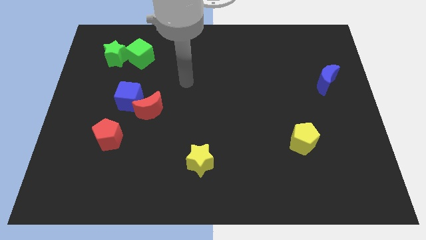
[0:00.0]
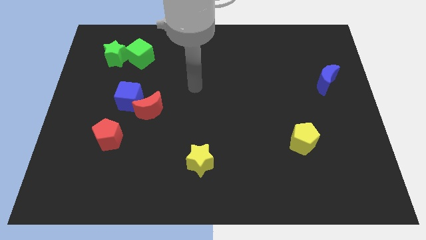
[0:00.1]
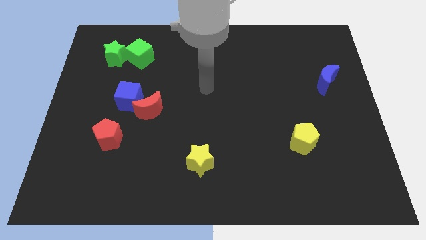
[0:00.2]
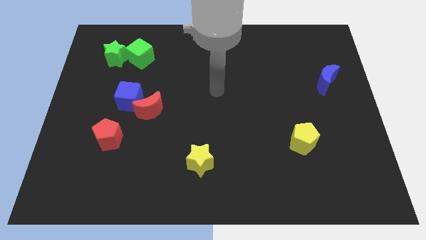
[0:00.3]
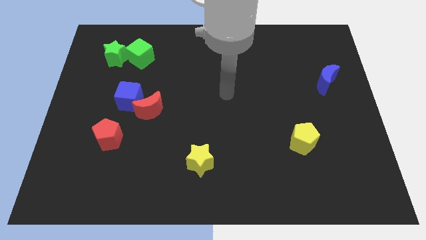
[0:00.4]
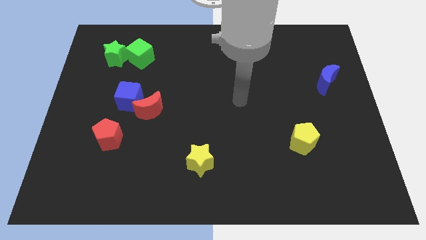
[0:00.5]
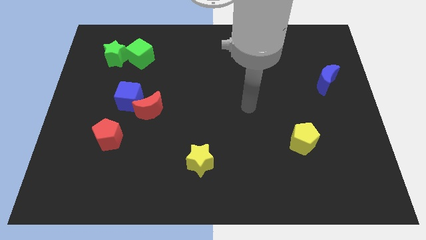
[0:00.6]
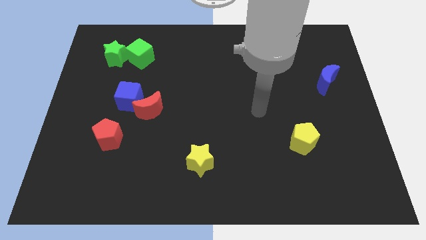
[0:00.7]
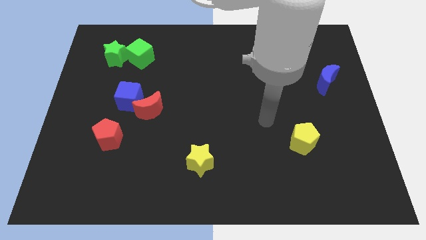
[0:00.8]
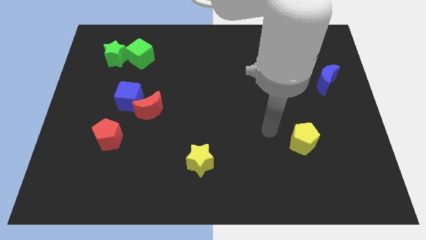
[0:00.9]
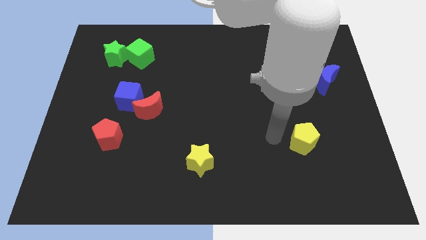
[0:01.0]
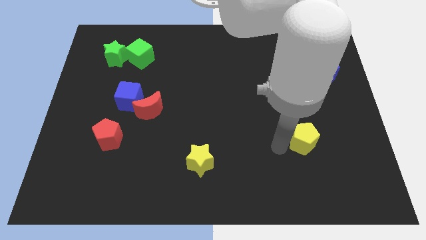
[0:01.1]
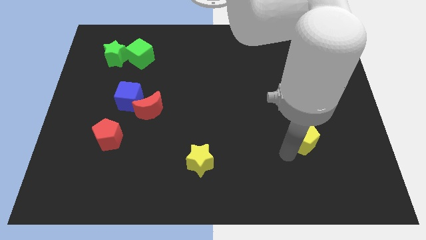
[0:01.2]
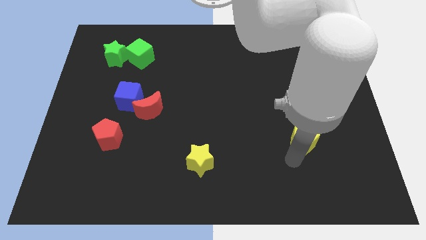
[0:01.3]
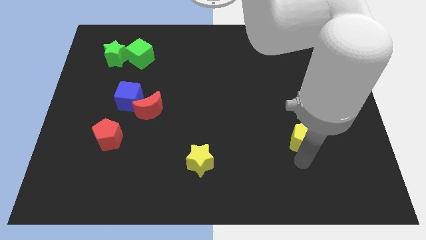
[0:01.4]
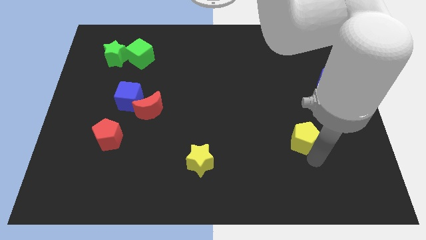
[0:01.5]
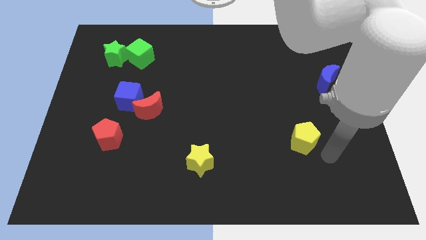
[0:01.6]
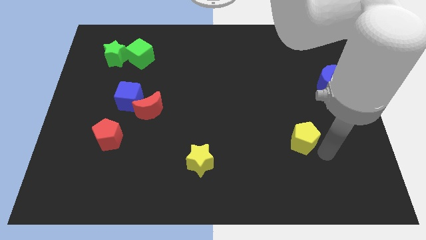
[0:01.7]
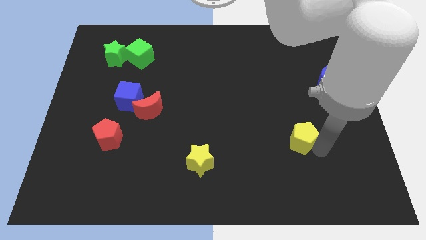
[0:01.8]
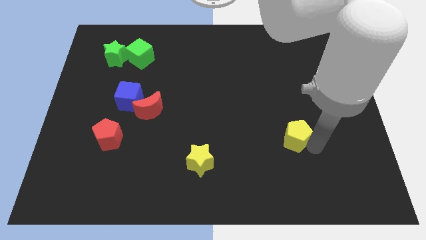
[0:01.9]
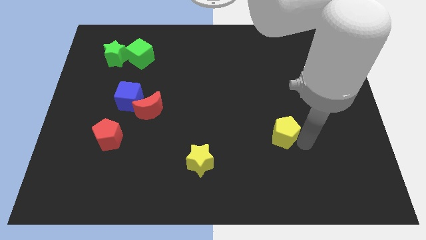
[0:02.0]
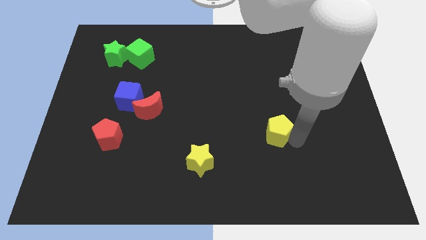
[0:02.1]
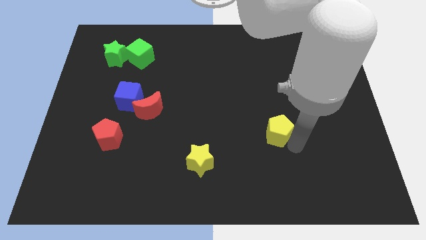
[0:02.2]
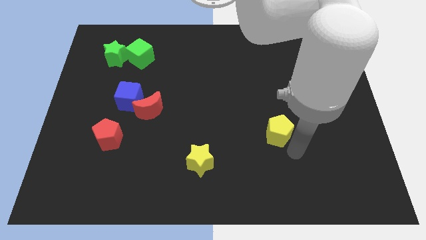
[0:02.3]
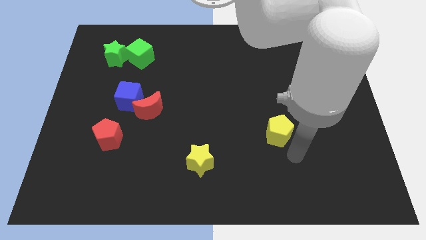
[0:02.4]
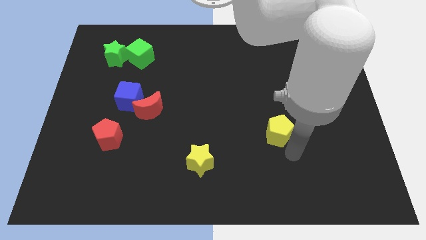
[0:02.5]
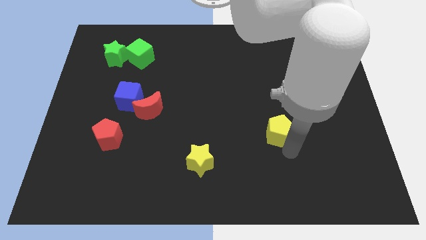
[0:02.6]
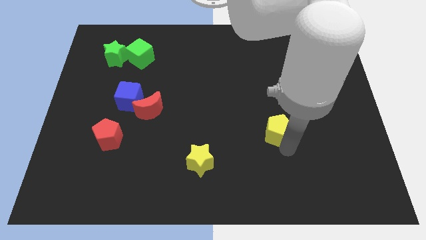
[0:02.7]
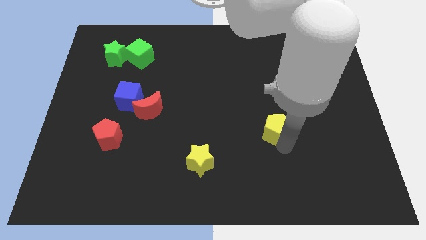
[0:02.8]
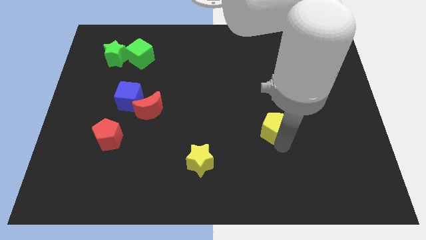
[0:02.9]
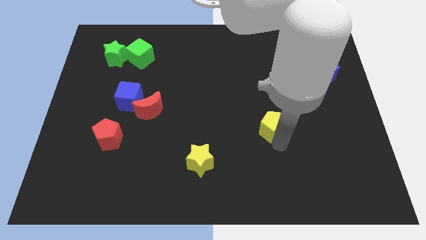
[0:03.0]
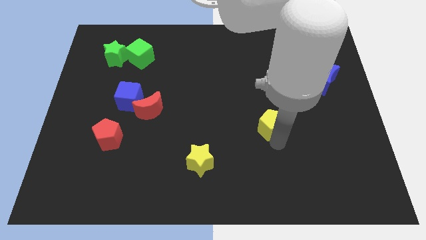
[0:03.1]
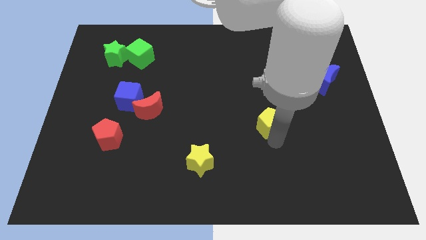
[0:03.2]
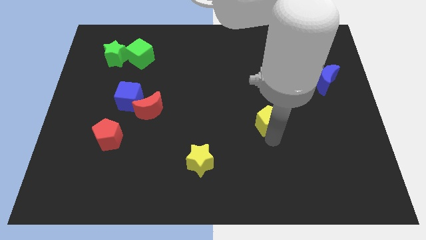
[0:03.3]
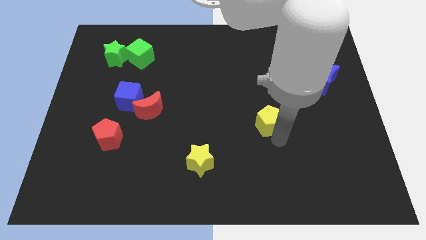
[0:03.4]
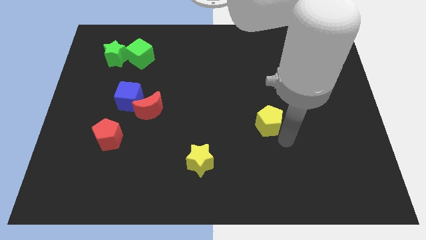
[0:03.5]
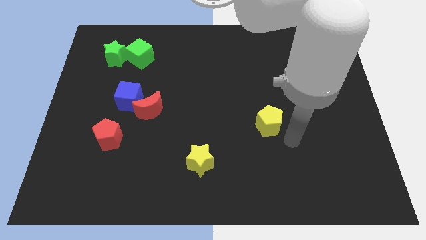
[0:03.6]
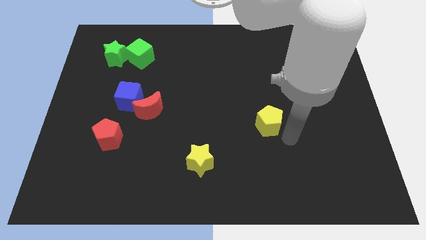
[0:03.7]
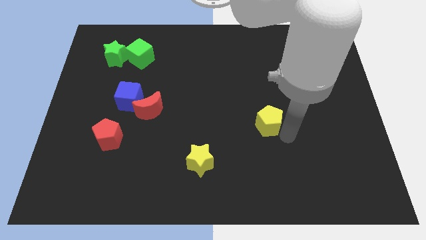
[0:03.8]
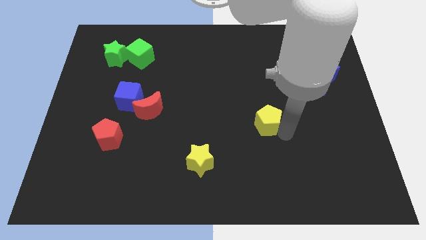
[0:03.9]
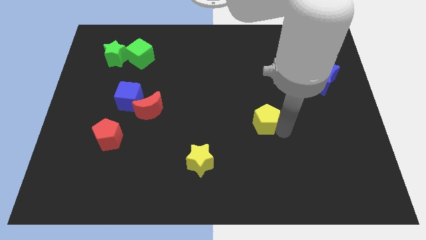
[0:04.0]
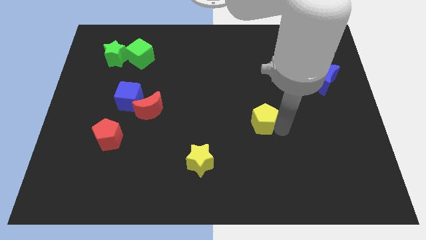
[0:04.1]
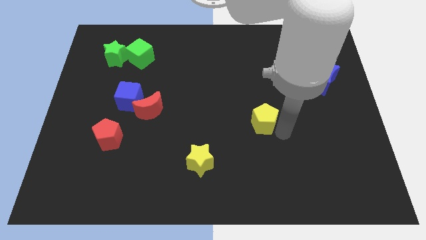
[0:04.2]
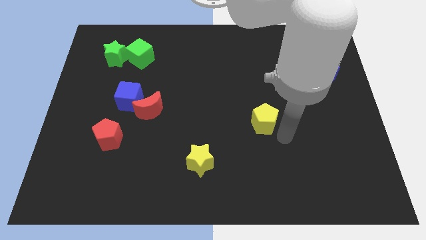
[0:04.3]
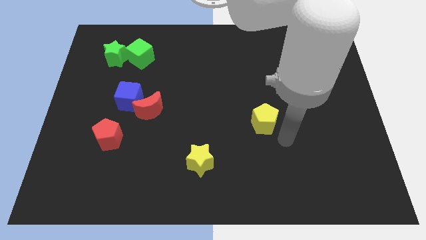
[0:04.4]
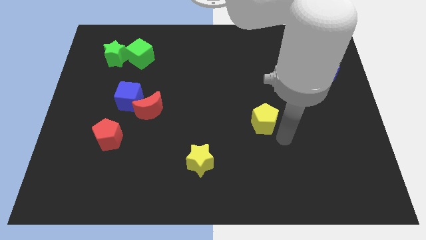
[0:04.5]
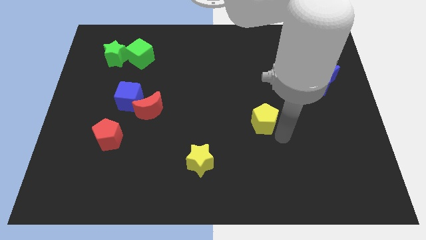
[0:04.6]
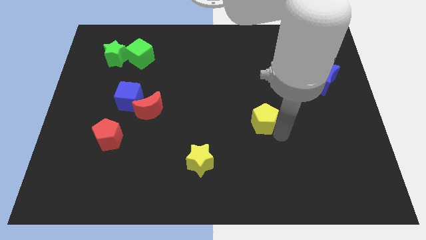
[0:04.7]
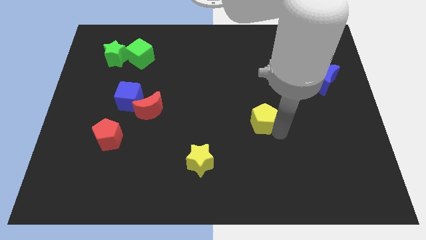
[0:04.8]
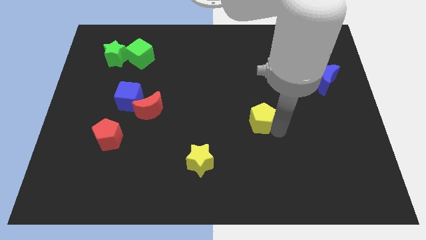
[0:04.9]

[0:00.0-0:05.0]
push the yellow pentagon to the middle of the board

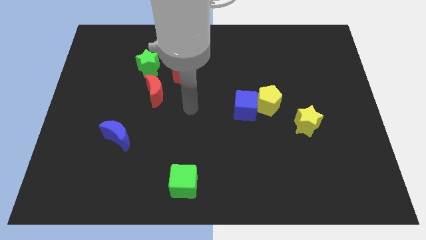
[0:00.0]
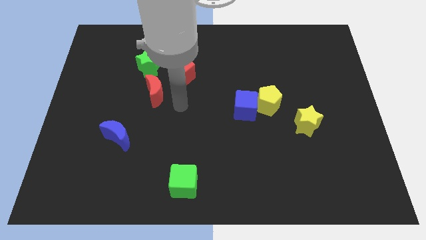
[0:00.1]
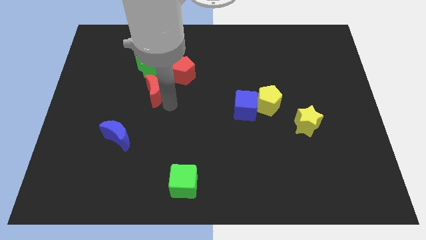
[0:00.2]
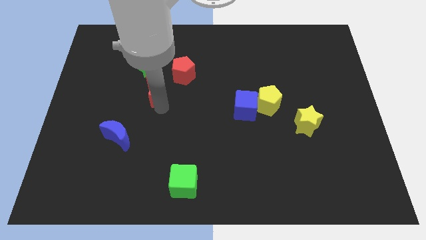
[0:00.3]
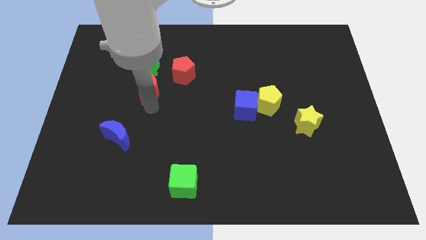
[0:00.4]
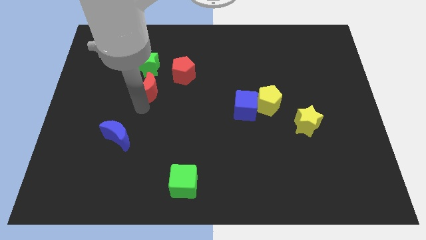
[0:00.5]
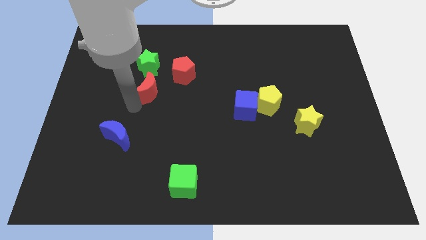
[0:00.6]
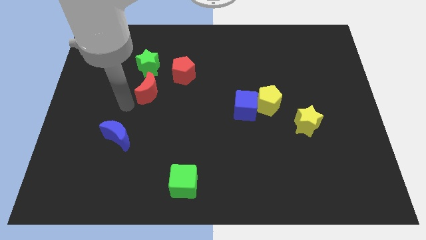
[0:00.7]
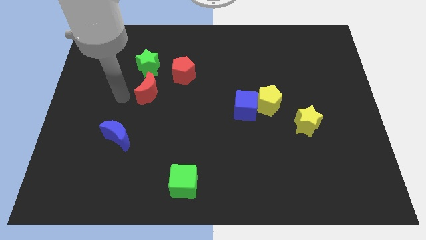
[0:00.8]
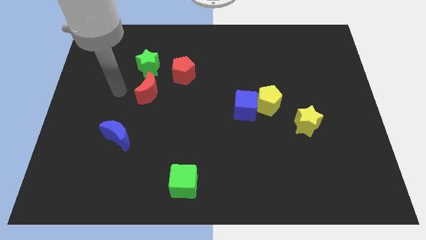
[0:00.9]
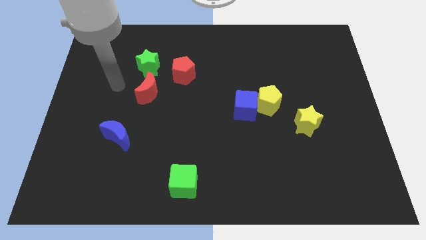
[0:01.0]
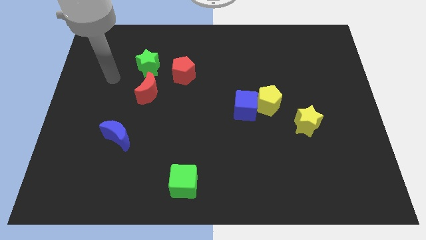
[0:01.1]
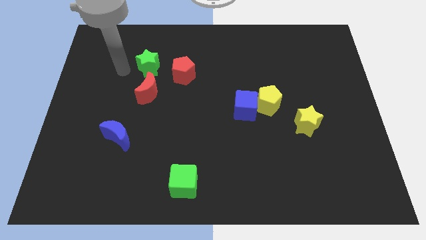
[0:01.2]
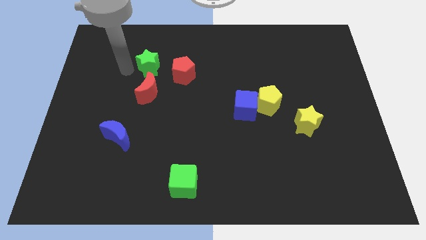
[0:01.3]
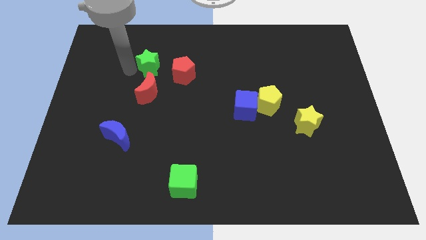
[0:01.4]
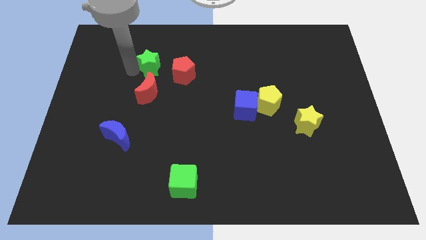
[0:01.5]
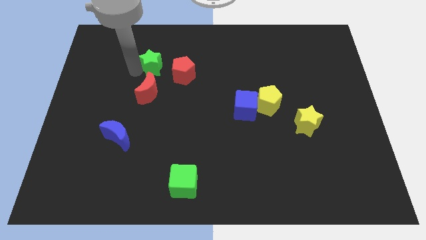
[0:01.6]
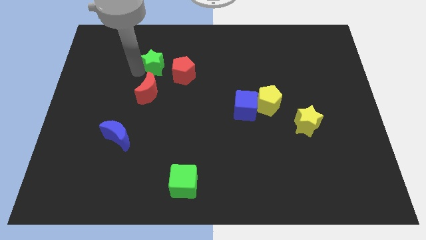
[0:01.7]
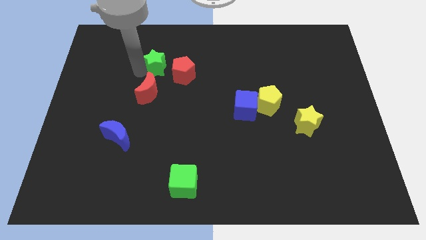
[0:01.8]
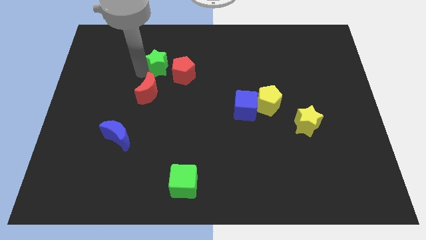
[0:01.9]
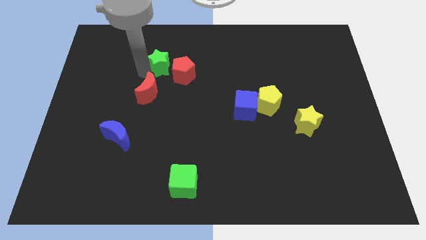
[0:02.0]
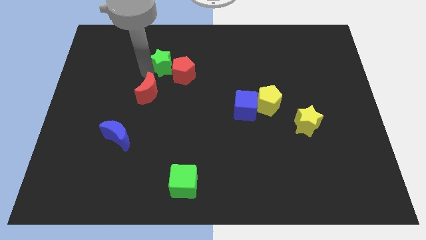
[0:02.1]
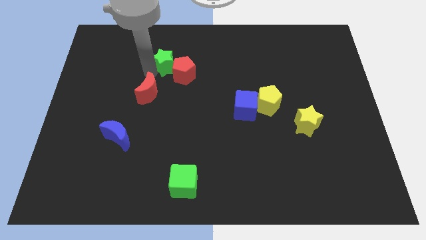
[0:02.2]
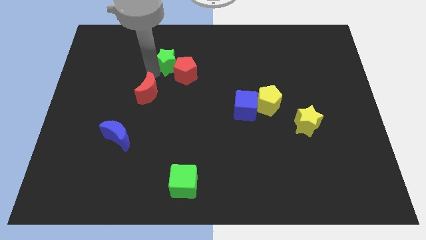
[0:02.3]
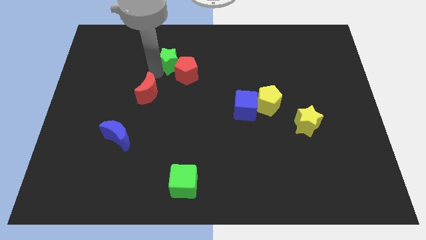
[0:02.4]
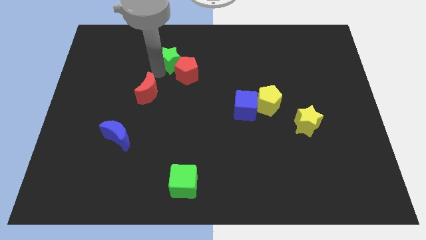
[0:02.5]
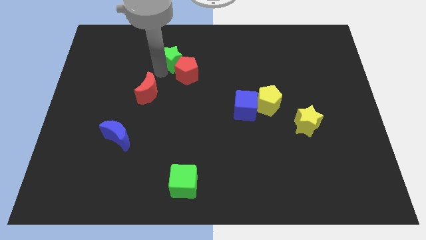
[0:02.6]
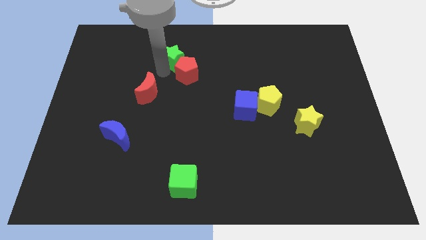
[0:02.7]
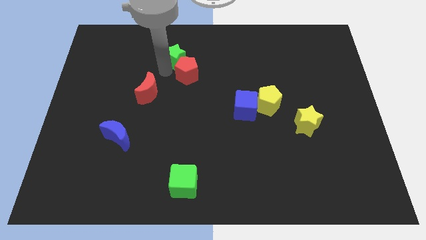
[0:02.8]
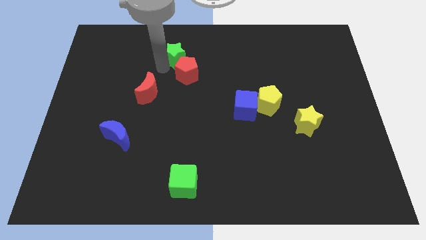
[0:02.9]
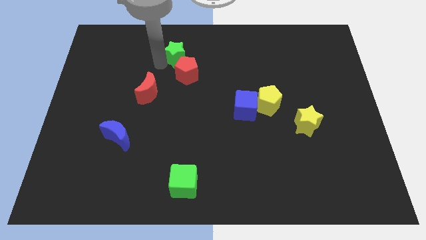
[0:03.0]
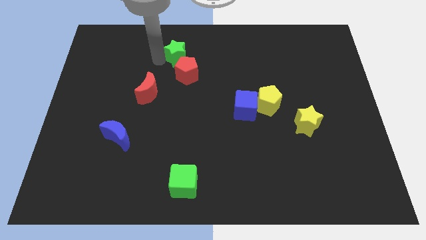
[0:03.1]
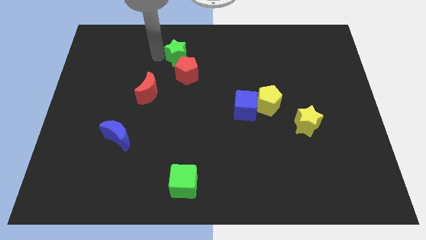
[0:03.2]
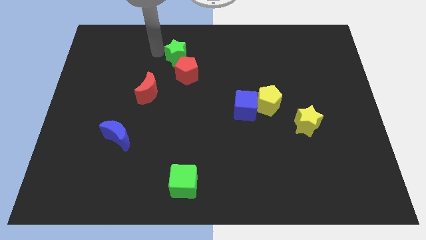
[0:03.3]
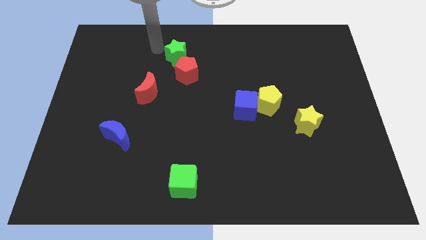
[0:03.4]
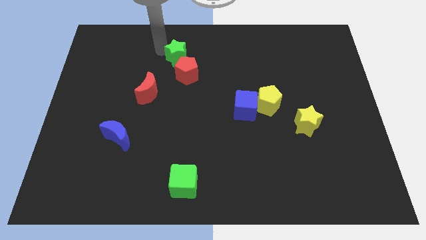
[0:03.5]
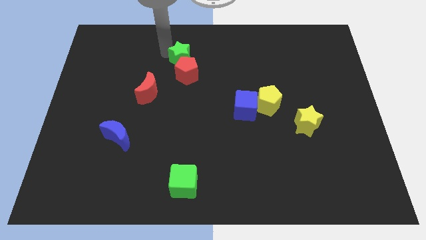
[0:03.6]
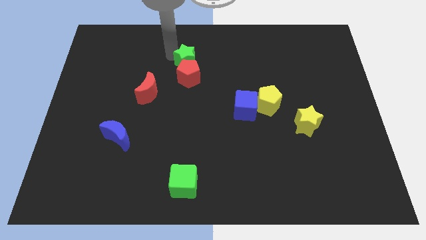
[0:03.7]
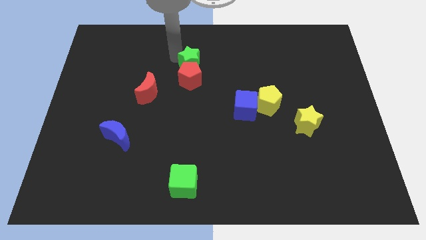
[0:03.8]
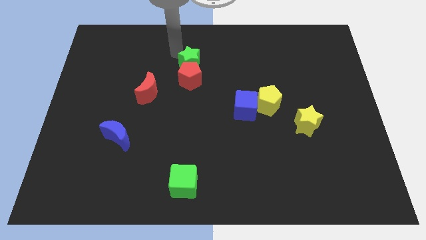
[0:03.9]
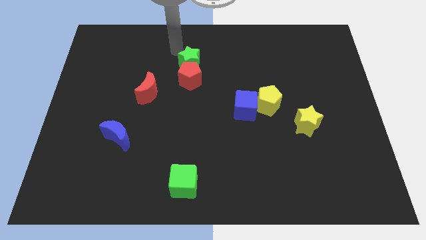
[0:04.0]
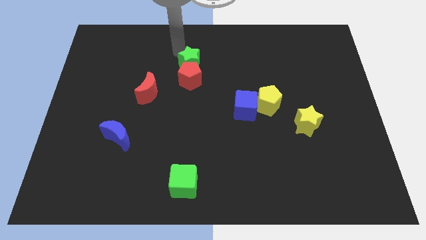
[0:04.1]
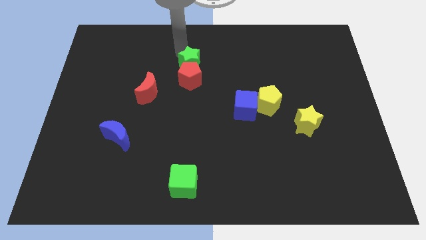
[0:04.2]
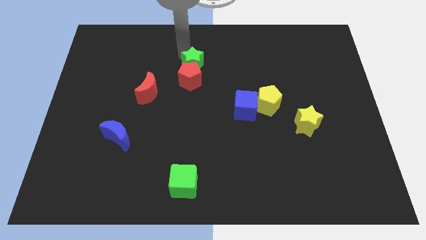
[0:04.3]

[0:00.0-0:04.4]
push the green star to the center
